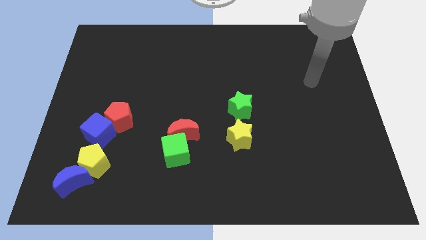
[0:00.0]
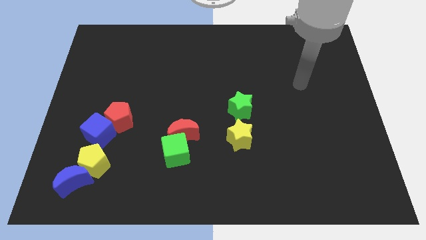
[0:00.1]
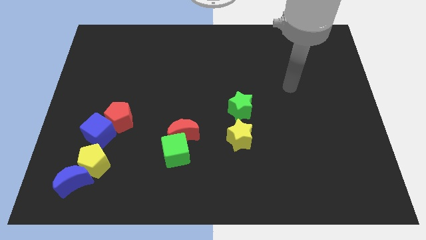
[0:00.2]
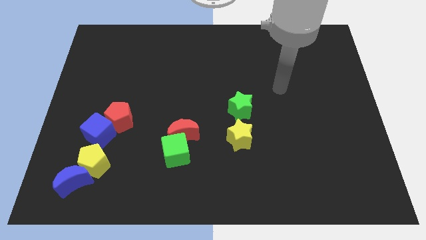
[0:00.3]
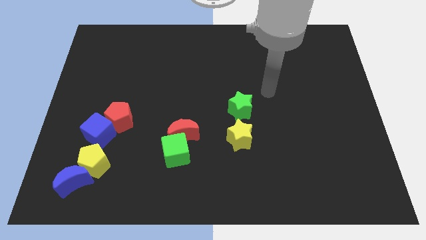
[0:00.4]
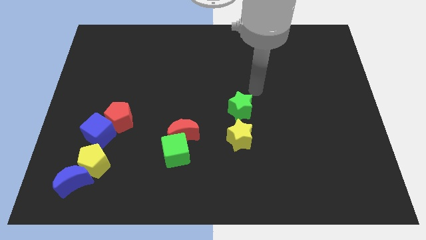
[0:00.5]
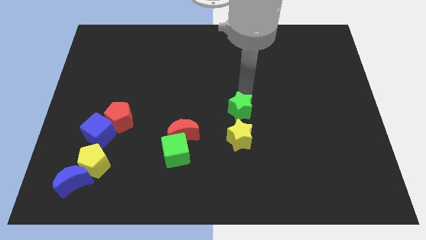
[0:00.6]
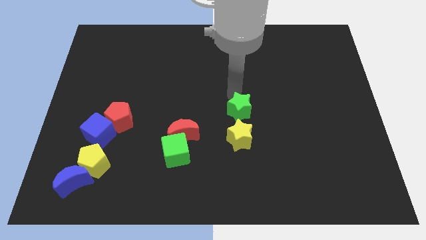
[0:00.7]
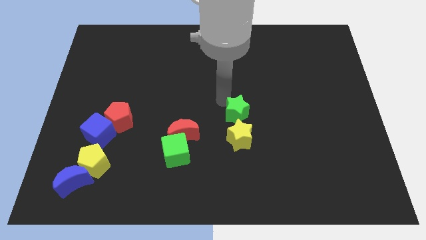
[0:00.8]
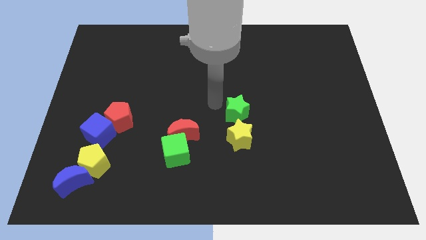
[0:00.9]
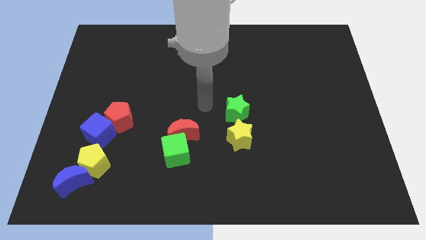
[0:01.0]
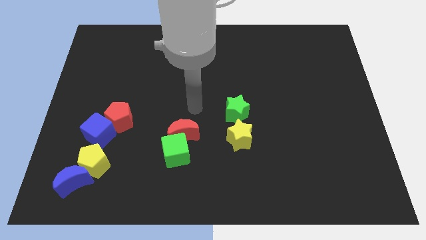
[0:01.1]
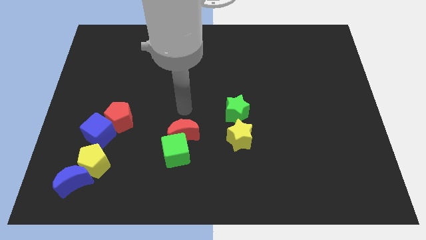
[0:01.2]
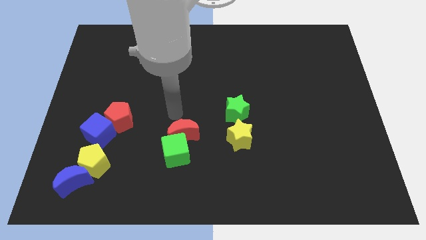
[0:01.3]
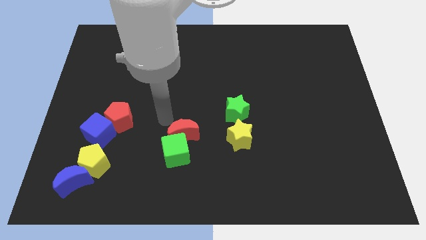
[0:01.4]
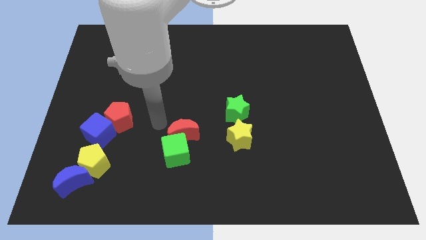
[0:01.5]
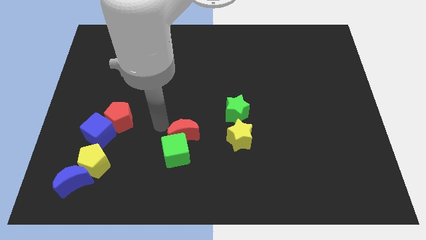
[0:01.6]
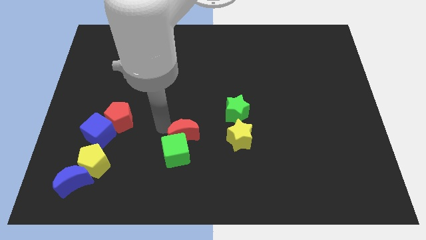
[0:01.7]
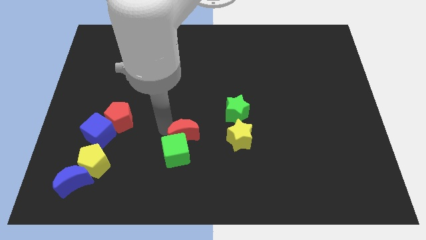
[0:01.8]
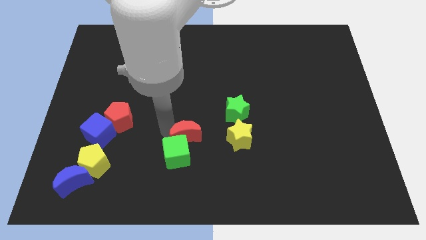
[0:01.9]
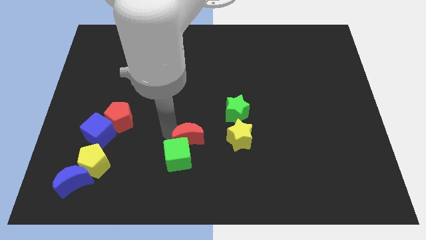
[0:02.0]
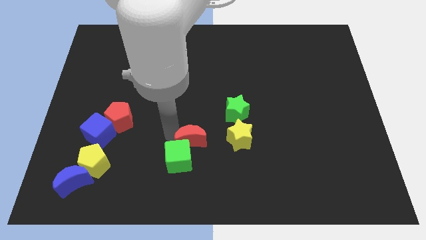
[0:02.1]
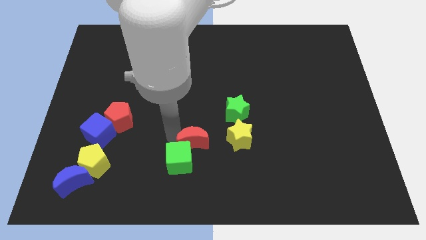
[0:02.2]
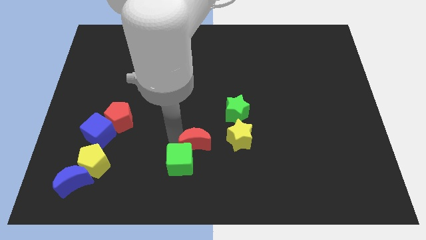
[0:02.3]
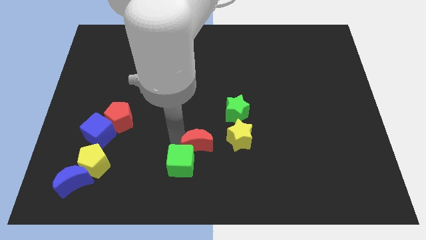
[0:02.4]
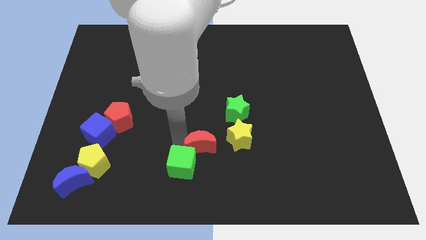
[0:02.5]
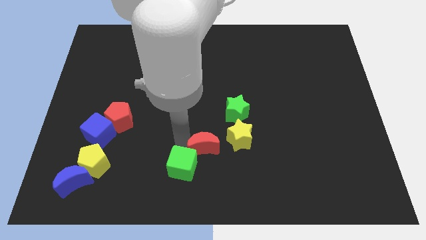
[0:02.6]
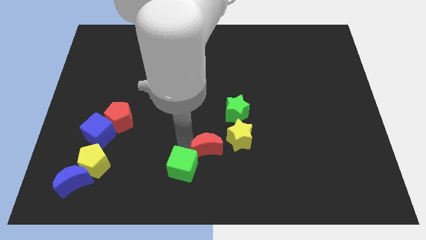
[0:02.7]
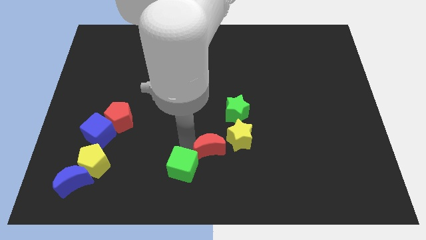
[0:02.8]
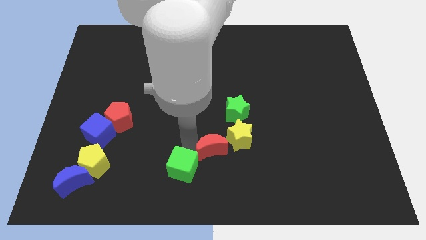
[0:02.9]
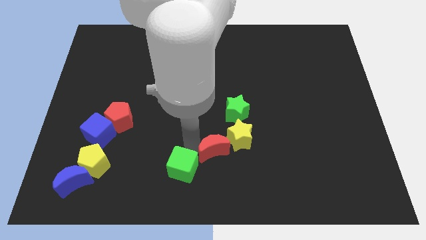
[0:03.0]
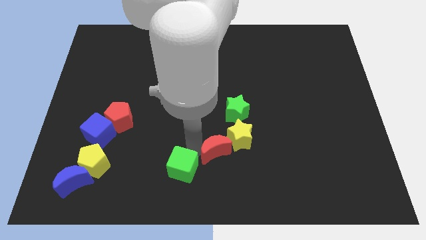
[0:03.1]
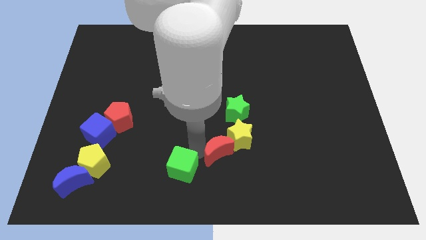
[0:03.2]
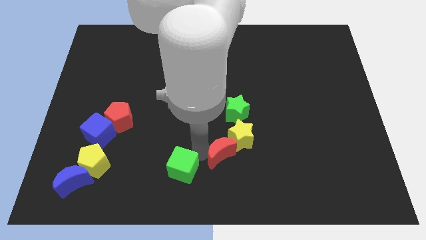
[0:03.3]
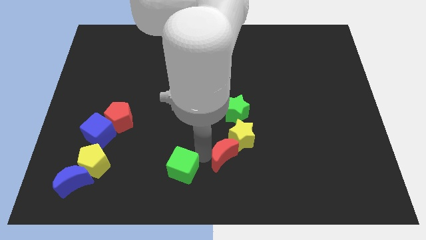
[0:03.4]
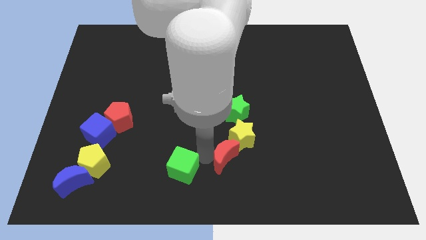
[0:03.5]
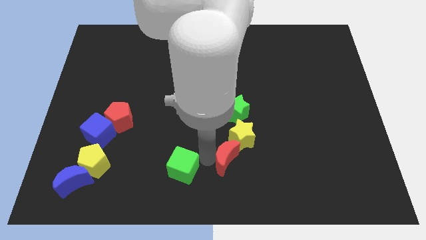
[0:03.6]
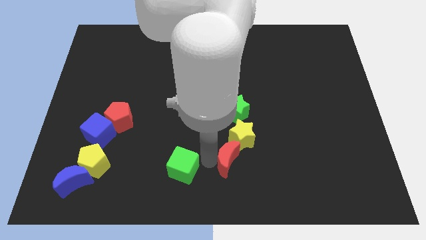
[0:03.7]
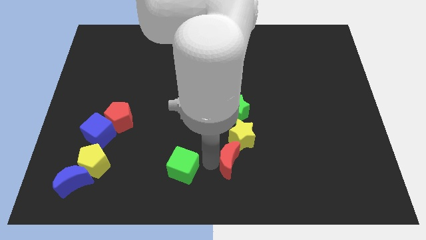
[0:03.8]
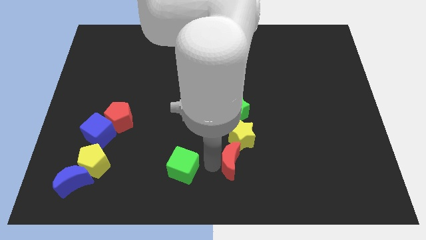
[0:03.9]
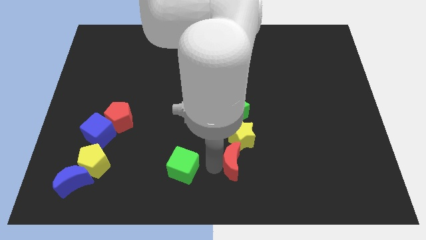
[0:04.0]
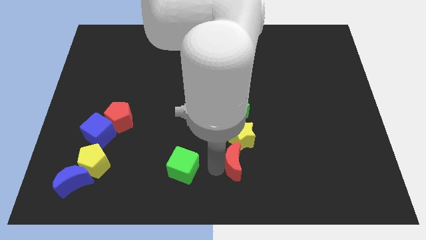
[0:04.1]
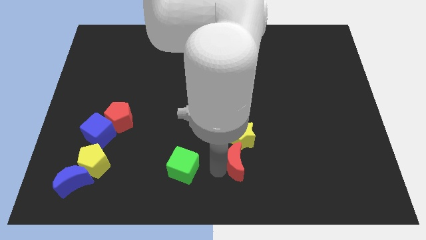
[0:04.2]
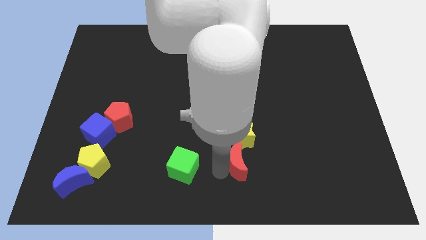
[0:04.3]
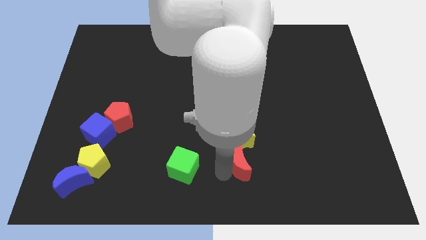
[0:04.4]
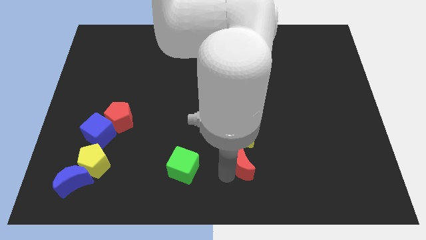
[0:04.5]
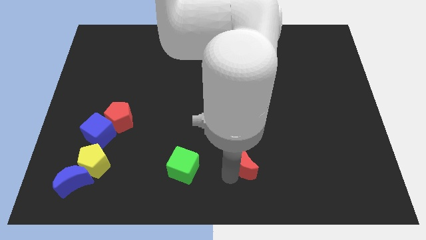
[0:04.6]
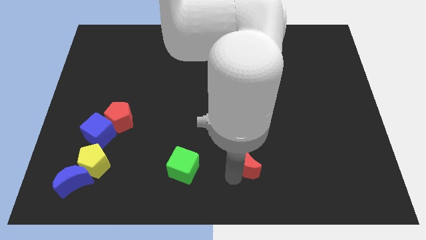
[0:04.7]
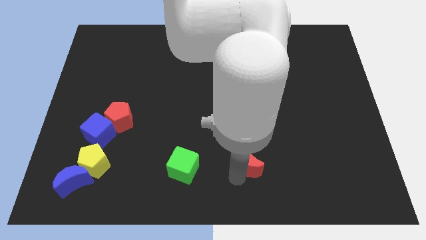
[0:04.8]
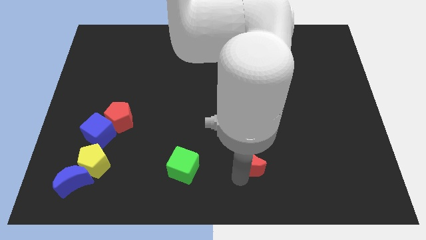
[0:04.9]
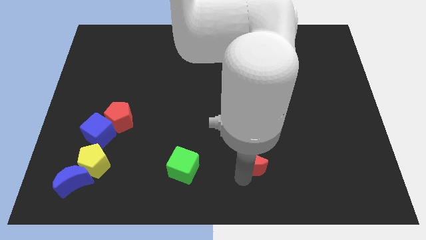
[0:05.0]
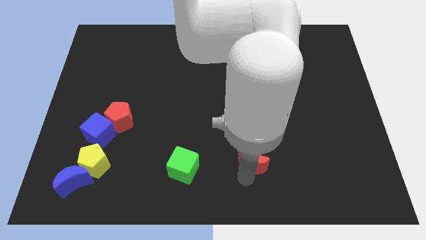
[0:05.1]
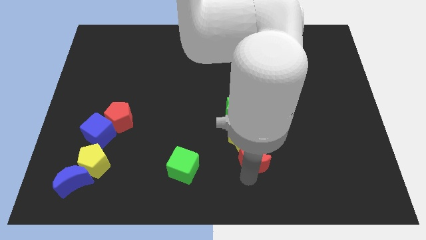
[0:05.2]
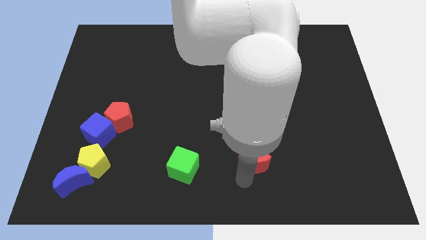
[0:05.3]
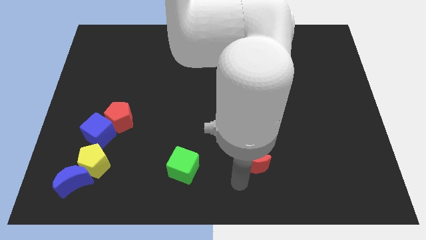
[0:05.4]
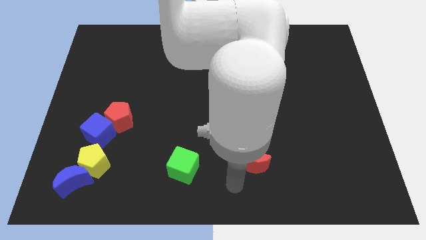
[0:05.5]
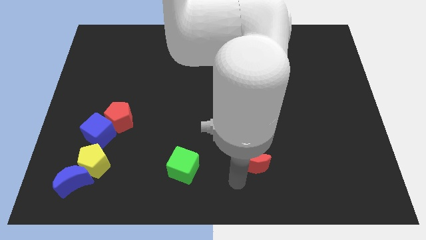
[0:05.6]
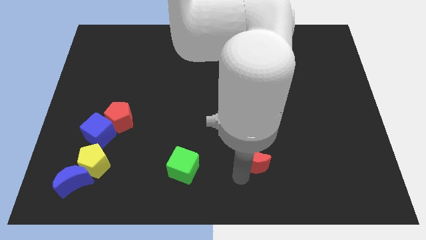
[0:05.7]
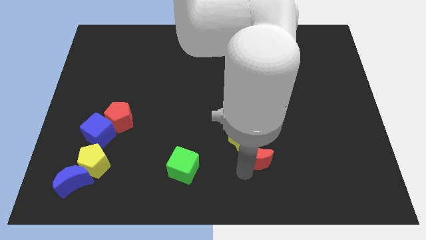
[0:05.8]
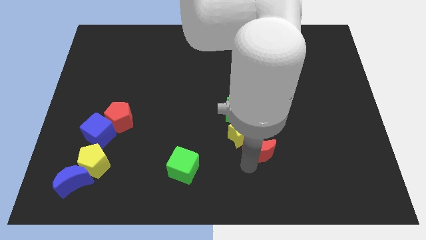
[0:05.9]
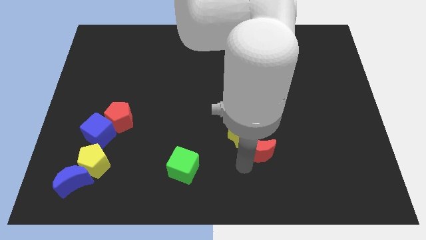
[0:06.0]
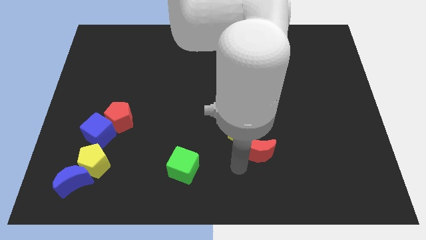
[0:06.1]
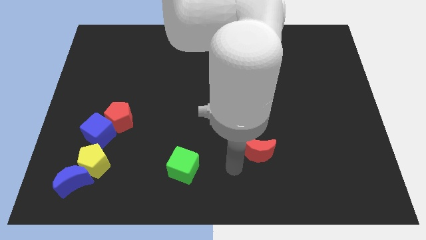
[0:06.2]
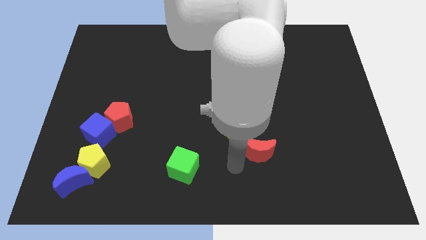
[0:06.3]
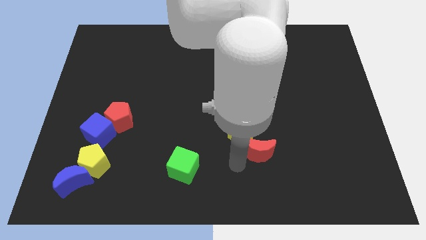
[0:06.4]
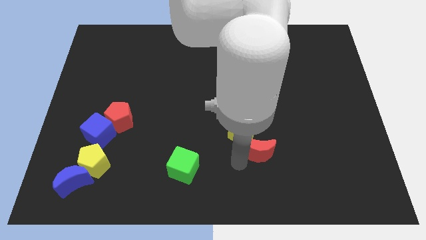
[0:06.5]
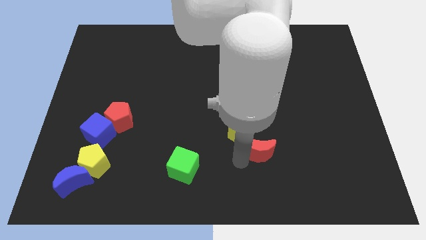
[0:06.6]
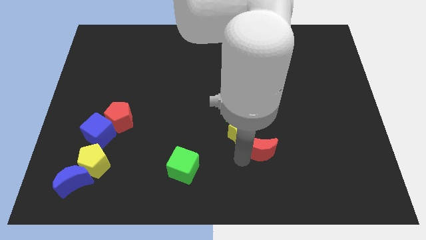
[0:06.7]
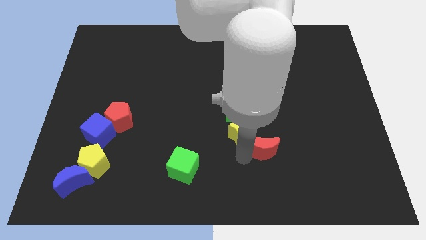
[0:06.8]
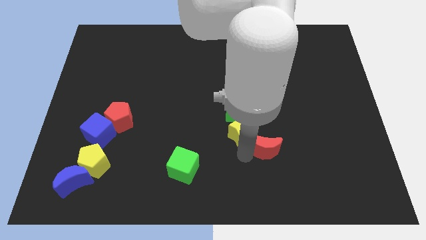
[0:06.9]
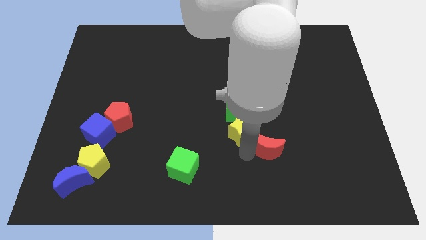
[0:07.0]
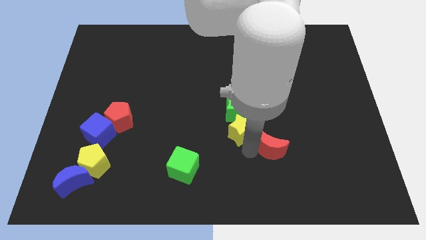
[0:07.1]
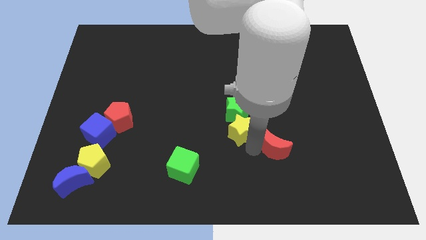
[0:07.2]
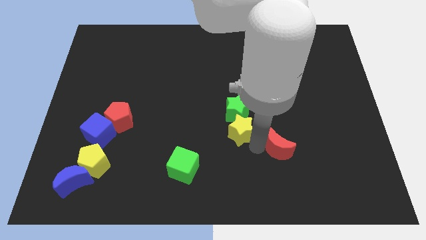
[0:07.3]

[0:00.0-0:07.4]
slide the red moon to the right

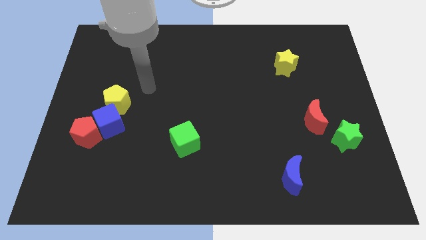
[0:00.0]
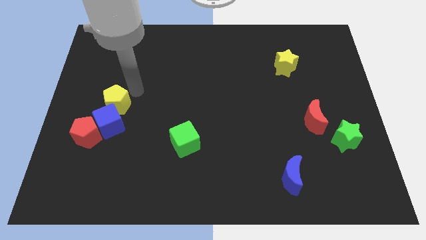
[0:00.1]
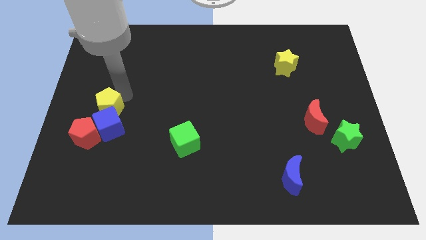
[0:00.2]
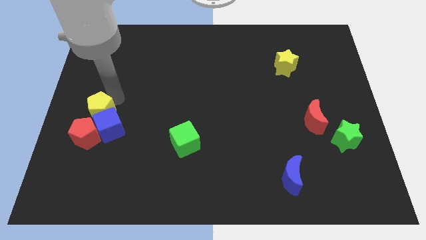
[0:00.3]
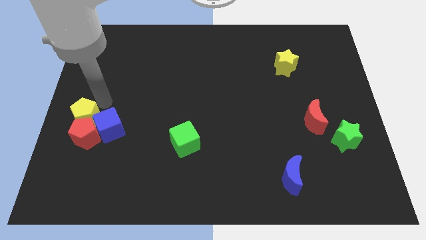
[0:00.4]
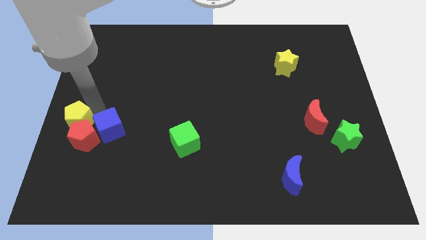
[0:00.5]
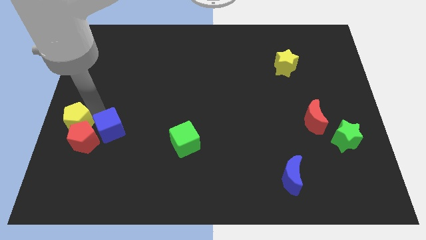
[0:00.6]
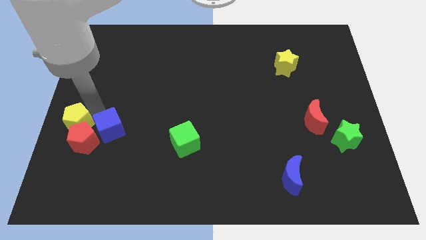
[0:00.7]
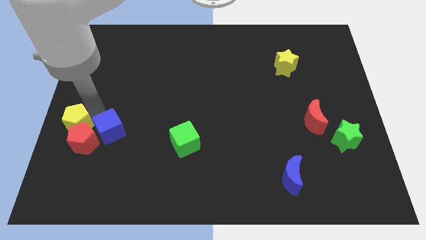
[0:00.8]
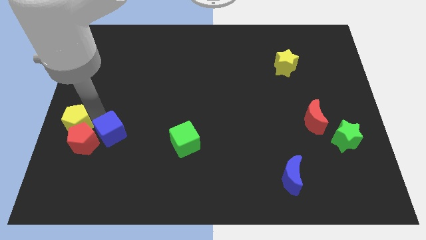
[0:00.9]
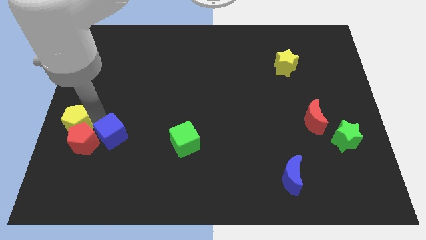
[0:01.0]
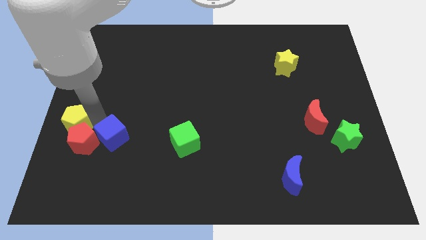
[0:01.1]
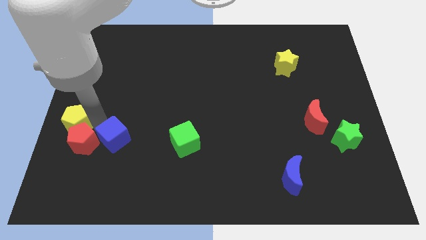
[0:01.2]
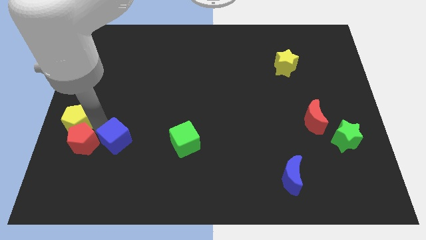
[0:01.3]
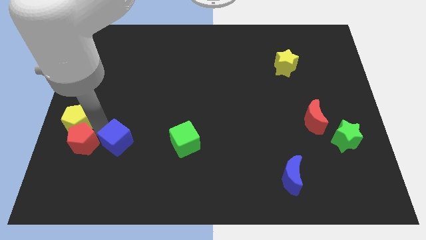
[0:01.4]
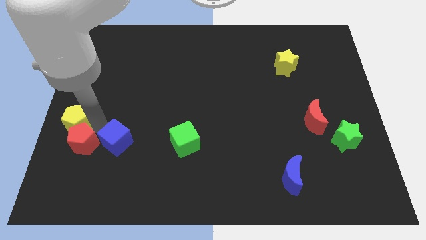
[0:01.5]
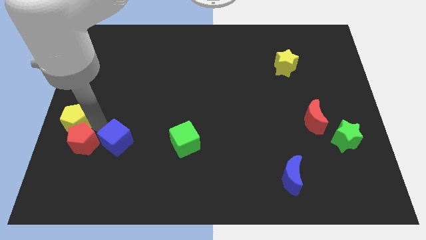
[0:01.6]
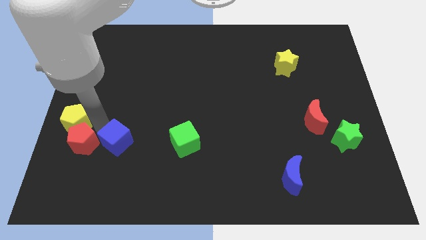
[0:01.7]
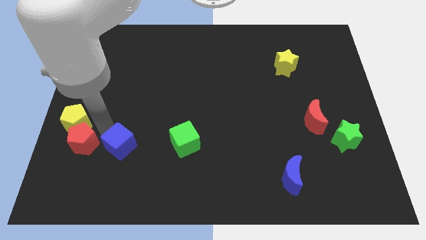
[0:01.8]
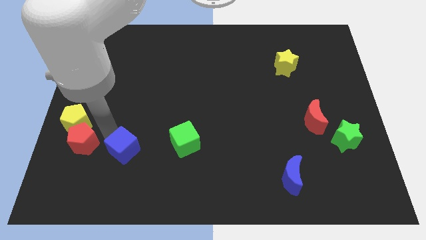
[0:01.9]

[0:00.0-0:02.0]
push the blue cube somewhat diagonally down and to the right
